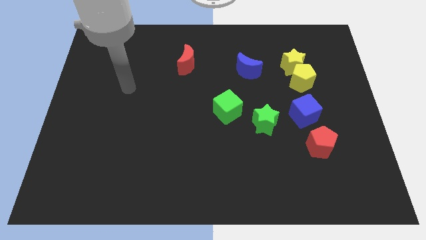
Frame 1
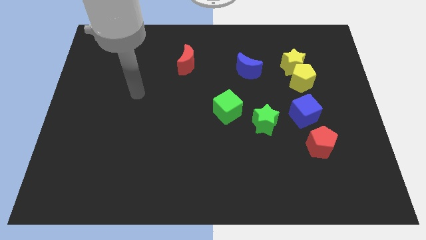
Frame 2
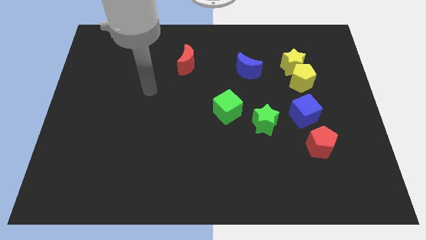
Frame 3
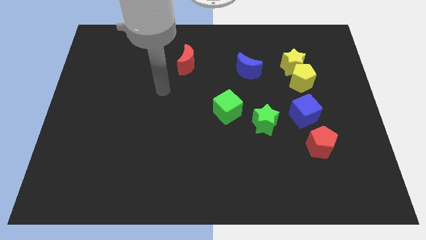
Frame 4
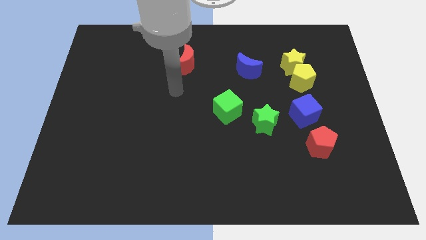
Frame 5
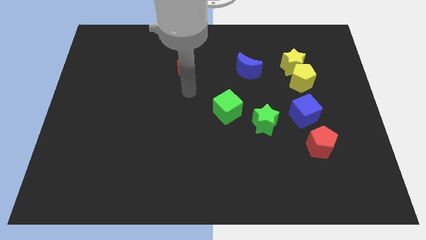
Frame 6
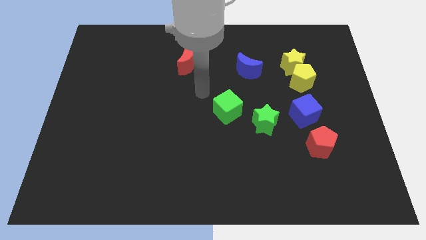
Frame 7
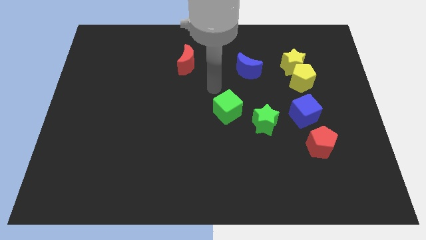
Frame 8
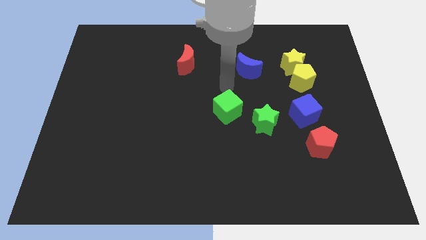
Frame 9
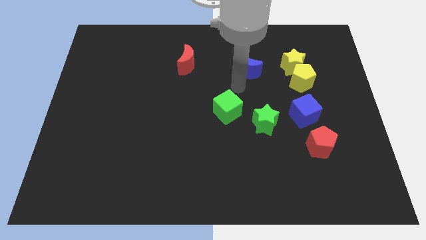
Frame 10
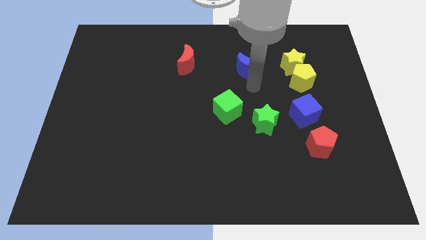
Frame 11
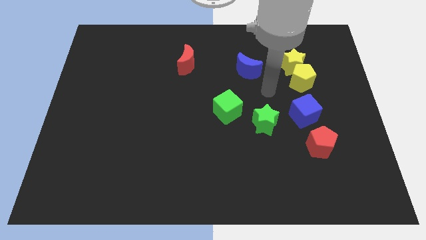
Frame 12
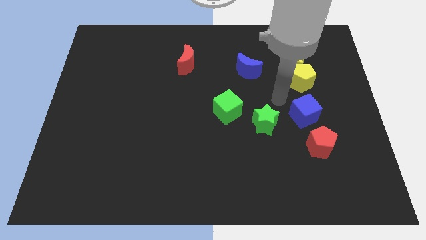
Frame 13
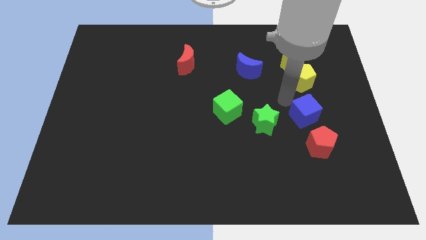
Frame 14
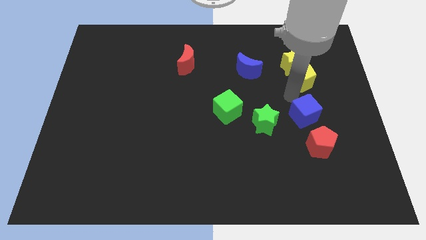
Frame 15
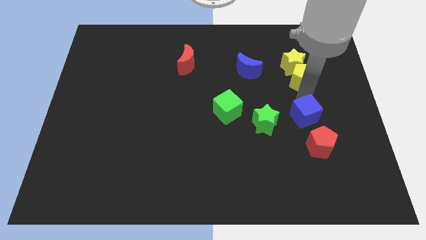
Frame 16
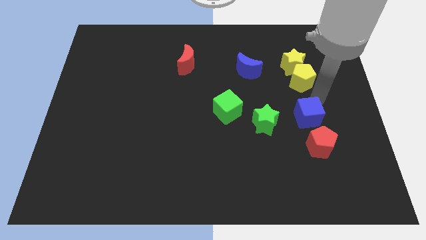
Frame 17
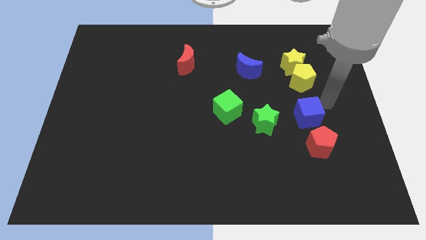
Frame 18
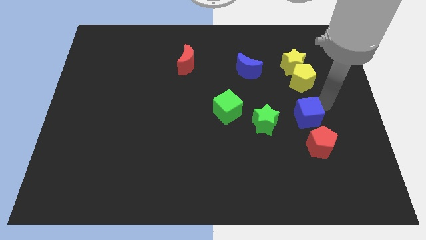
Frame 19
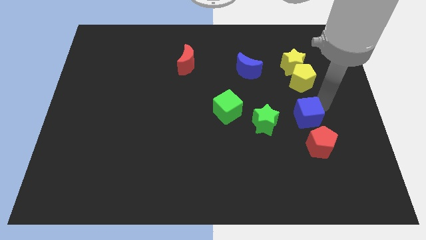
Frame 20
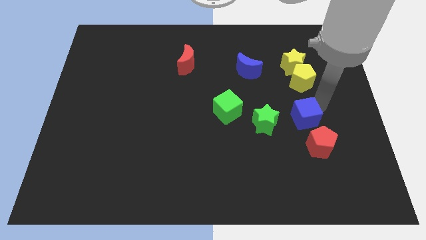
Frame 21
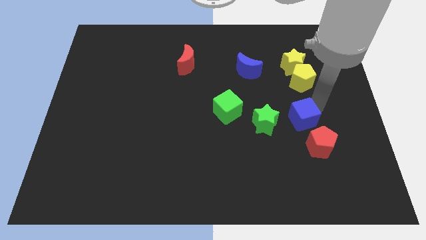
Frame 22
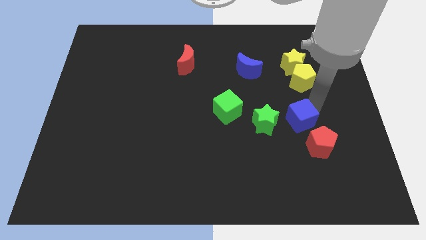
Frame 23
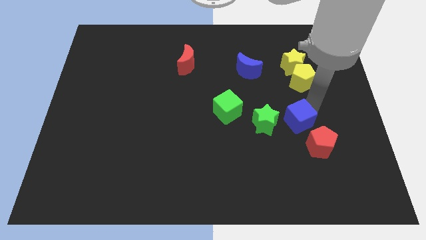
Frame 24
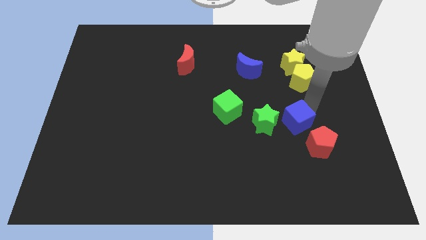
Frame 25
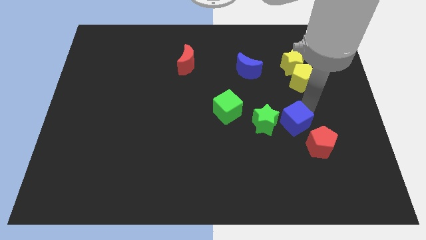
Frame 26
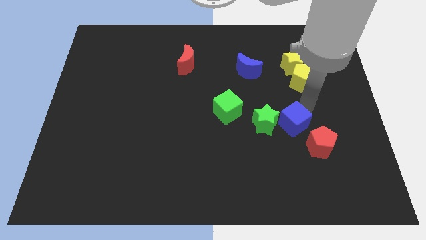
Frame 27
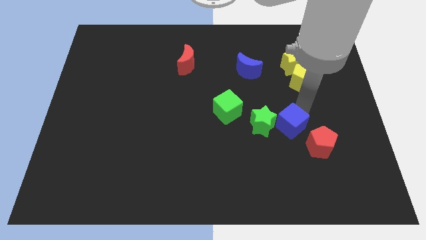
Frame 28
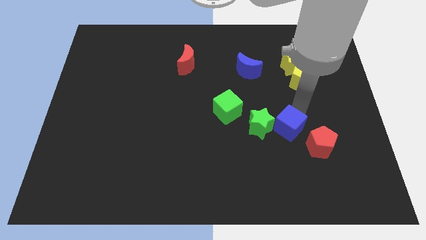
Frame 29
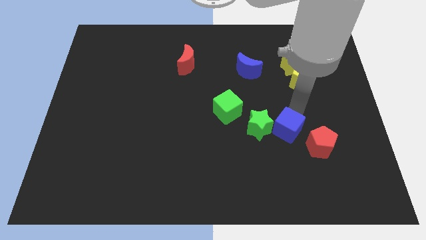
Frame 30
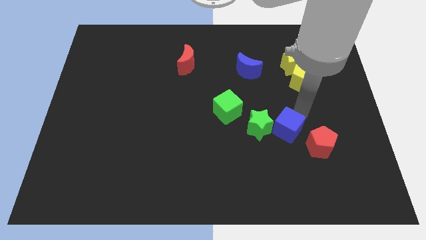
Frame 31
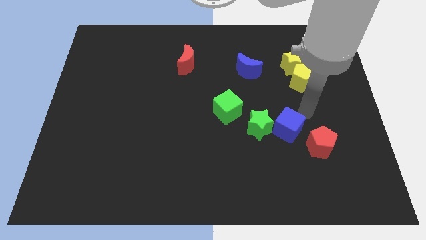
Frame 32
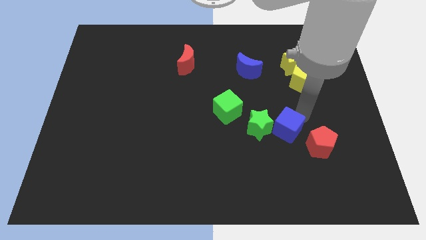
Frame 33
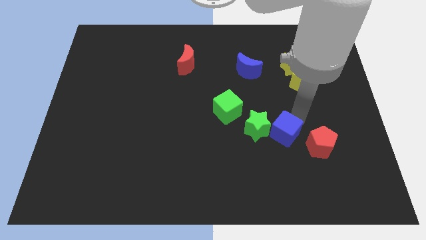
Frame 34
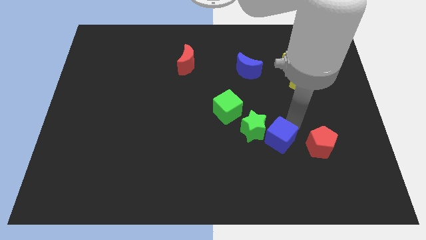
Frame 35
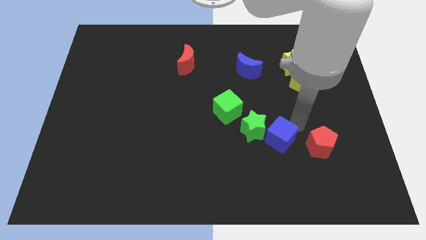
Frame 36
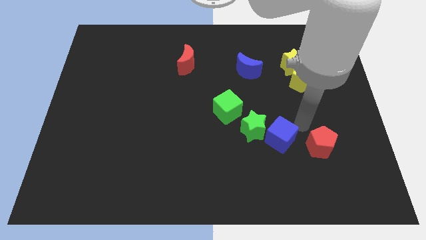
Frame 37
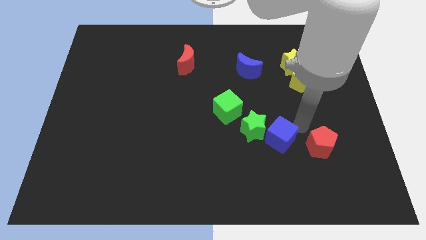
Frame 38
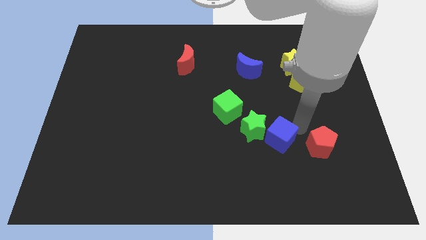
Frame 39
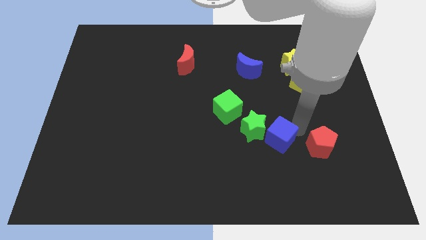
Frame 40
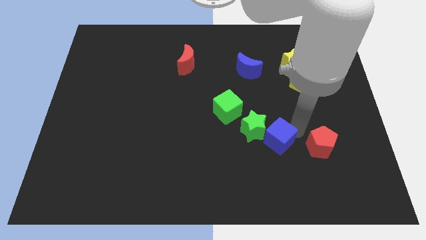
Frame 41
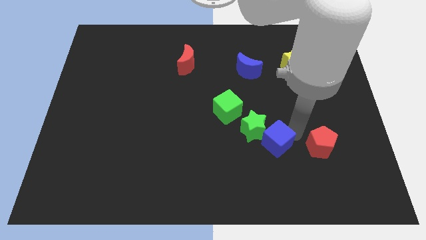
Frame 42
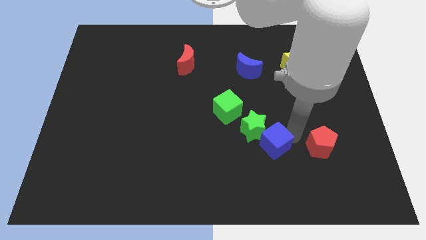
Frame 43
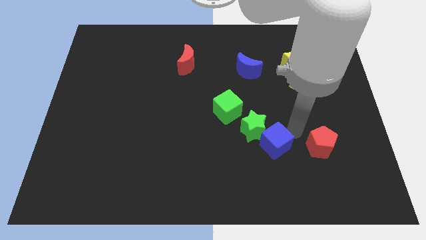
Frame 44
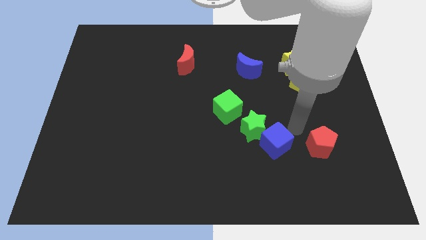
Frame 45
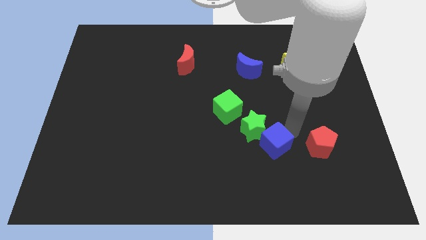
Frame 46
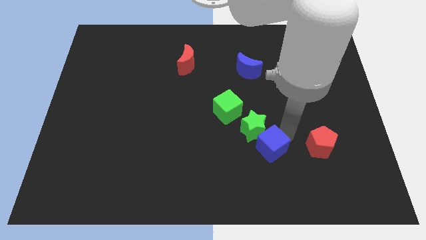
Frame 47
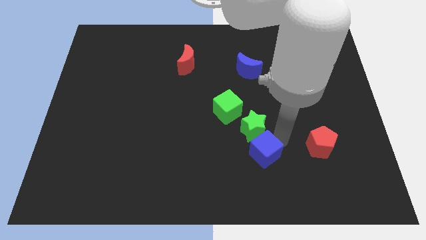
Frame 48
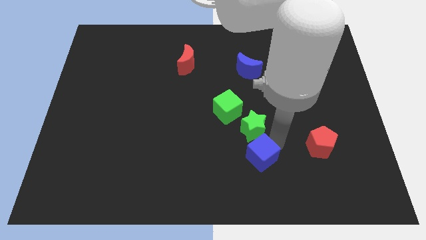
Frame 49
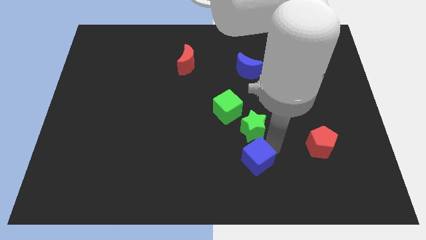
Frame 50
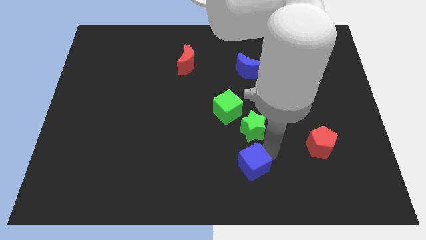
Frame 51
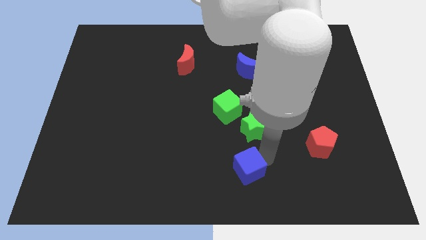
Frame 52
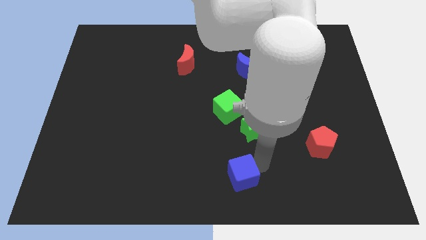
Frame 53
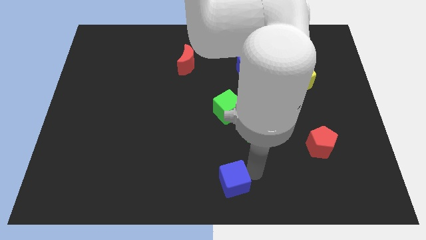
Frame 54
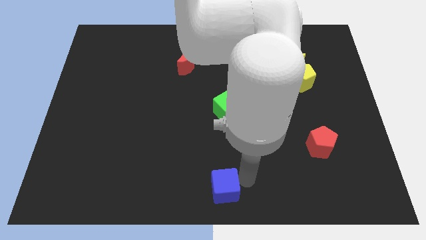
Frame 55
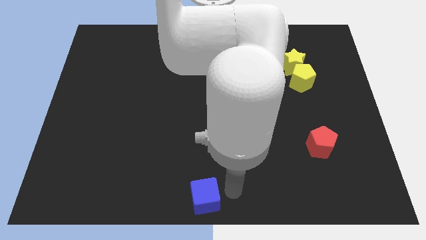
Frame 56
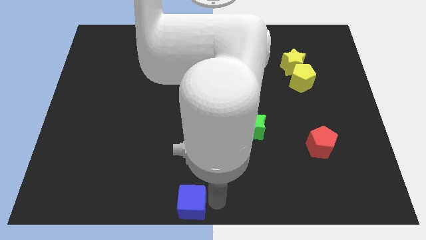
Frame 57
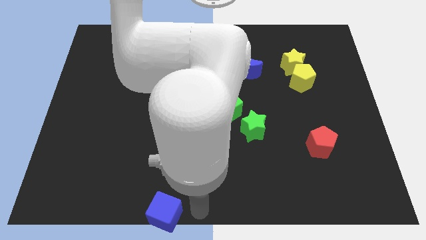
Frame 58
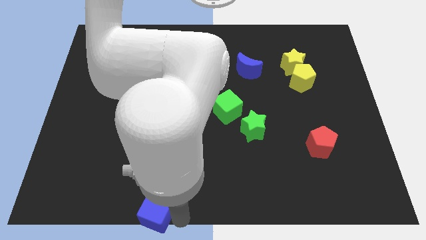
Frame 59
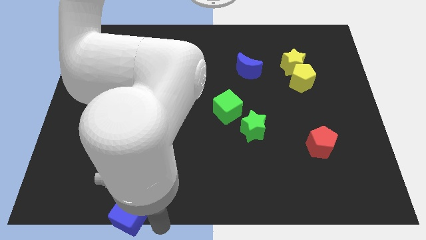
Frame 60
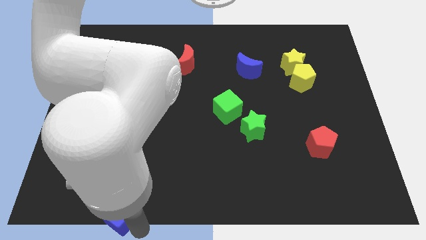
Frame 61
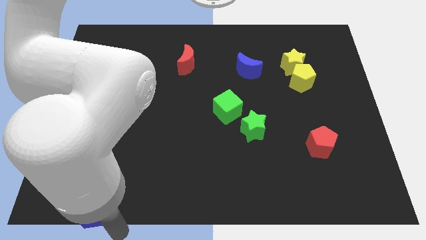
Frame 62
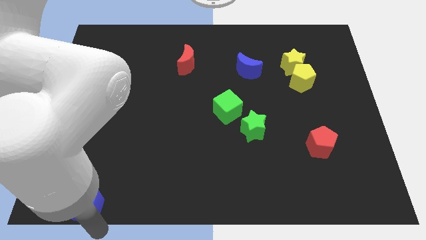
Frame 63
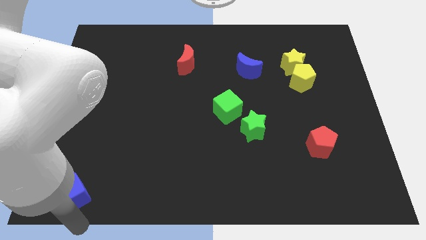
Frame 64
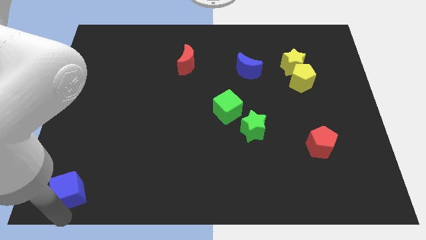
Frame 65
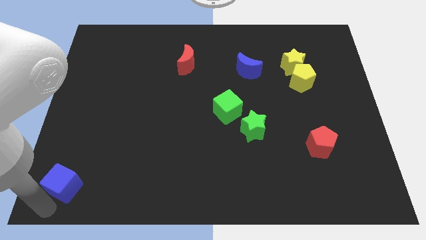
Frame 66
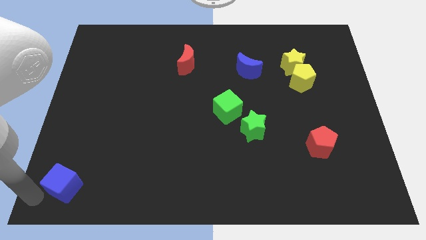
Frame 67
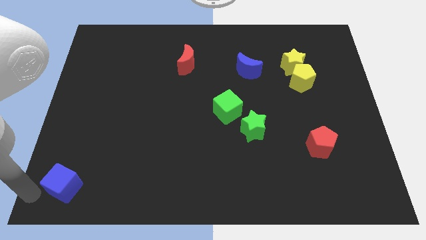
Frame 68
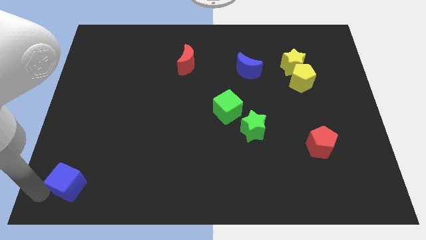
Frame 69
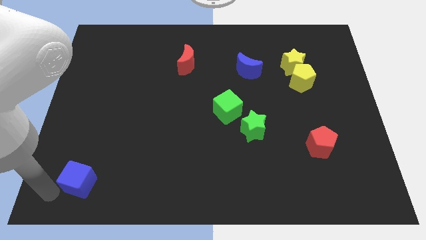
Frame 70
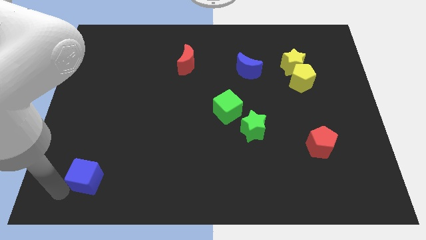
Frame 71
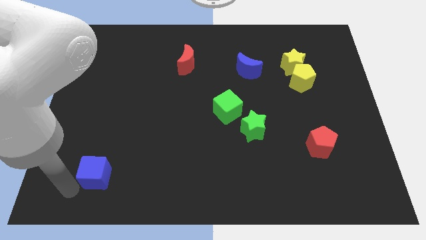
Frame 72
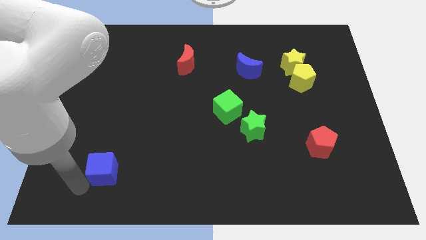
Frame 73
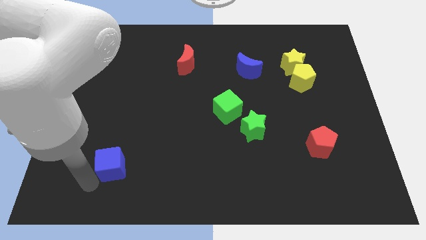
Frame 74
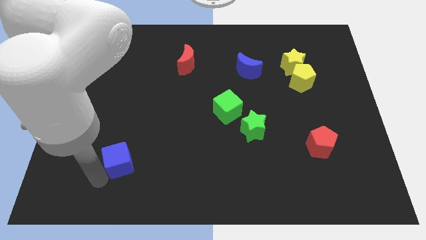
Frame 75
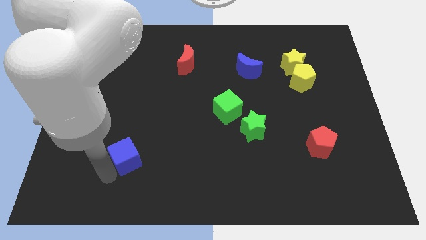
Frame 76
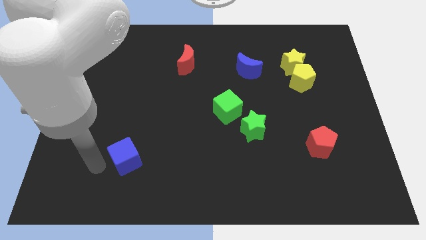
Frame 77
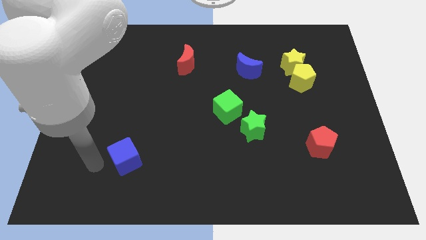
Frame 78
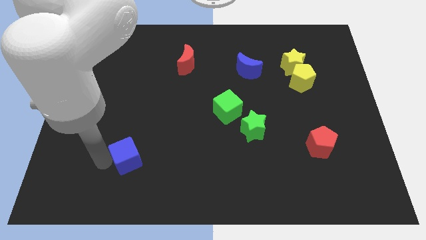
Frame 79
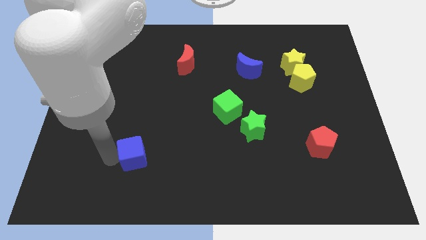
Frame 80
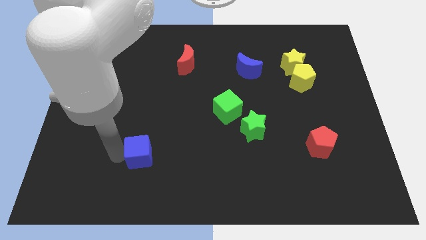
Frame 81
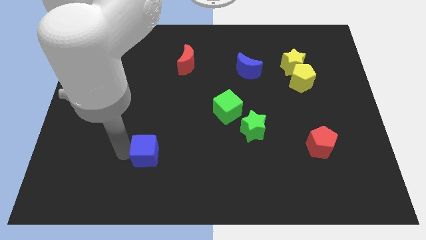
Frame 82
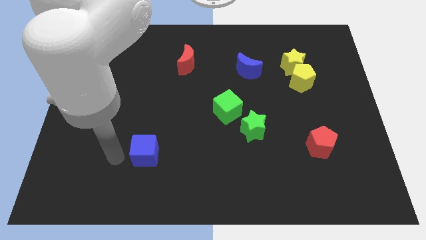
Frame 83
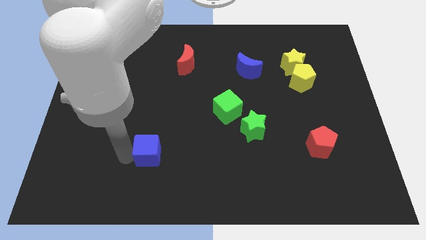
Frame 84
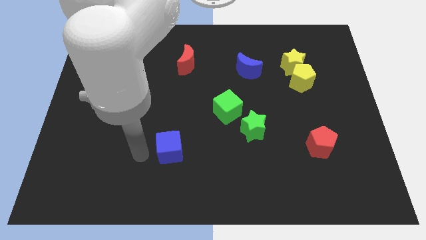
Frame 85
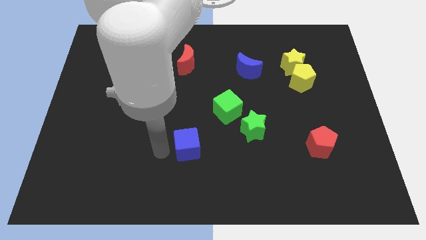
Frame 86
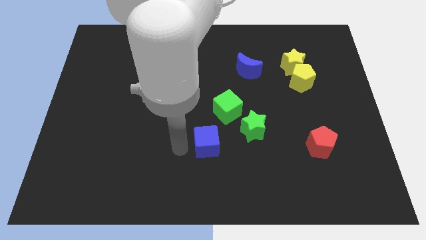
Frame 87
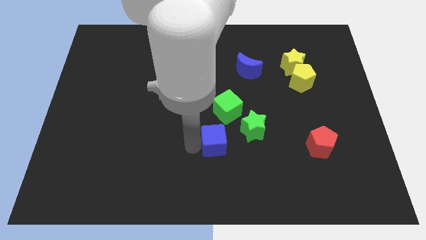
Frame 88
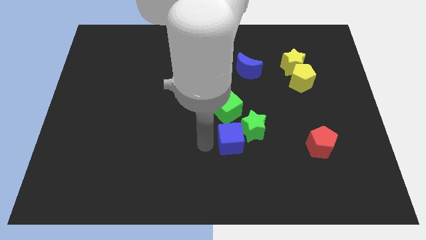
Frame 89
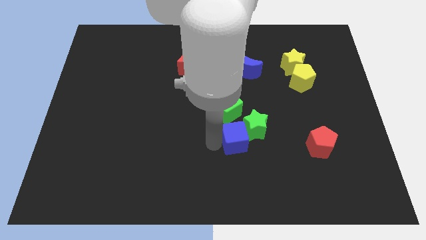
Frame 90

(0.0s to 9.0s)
put the blue cube to the bottom right of the green cube
